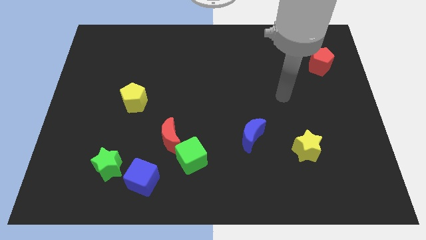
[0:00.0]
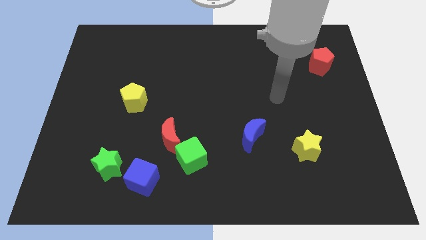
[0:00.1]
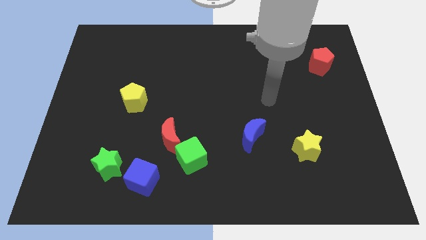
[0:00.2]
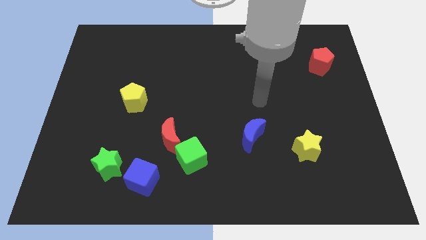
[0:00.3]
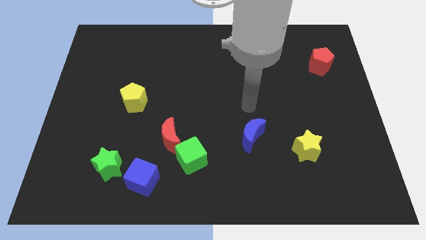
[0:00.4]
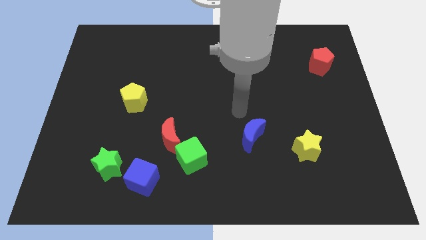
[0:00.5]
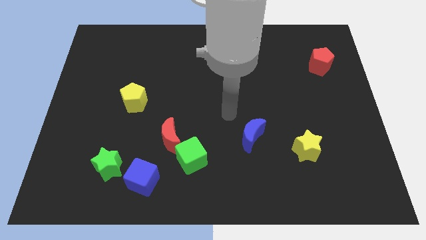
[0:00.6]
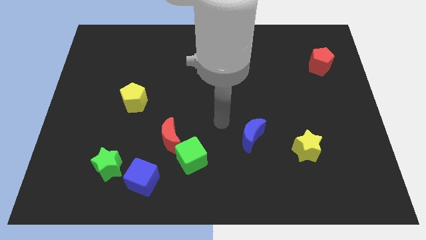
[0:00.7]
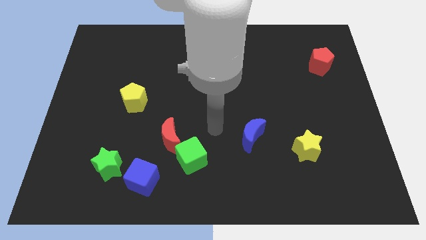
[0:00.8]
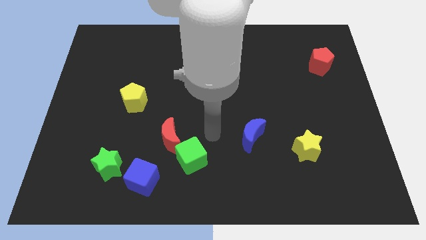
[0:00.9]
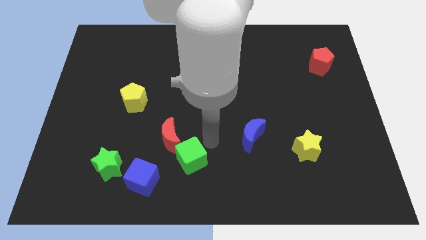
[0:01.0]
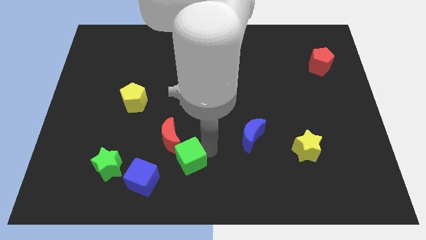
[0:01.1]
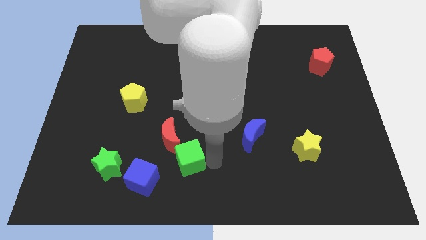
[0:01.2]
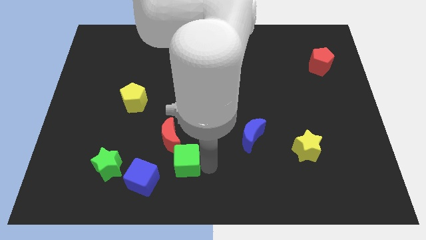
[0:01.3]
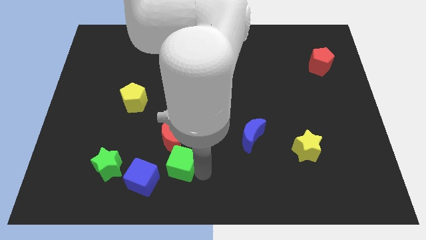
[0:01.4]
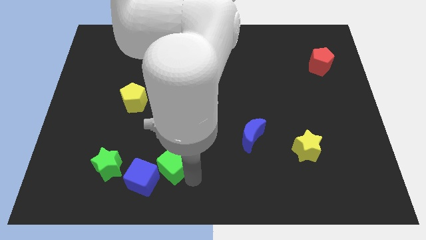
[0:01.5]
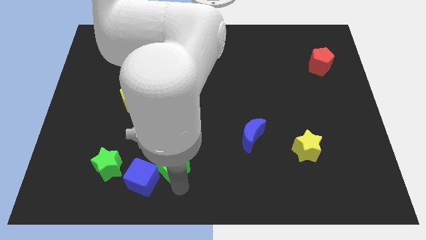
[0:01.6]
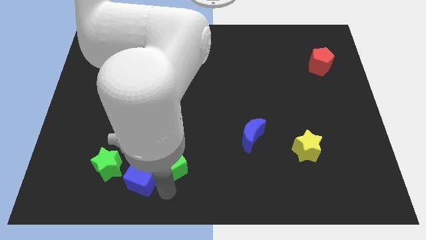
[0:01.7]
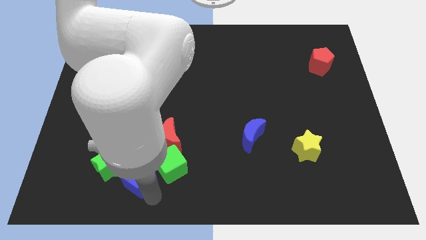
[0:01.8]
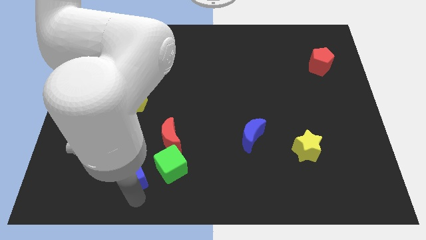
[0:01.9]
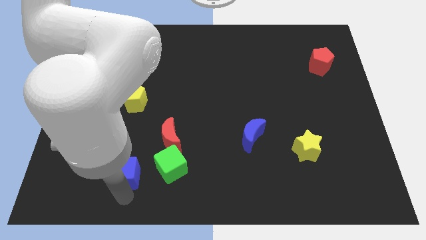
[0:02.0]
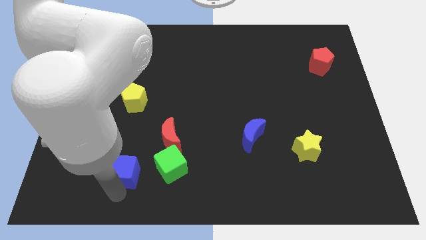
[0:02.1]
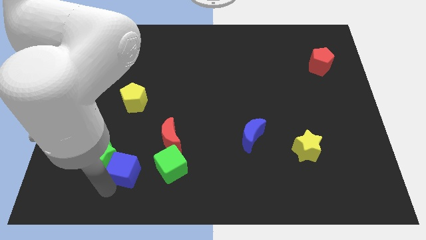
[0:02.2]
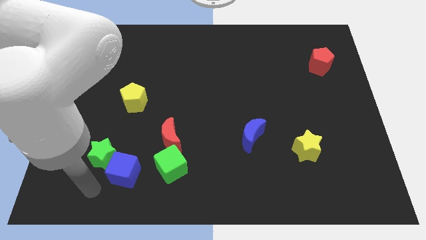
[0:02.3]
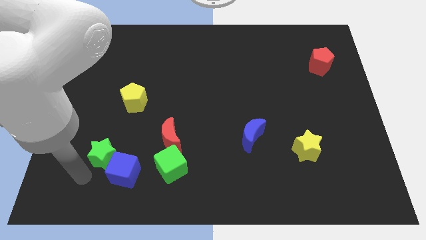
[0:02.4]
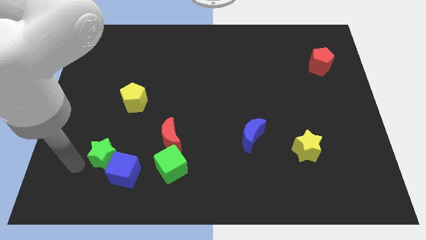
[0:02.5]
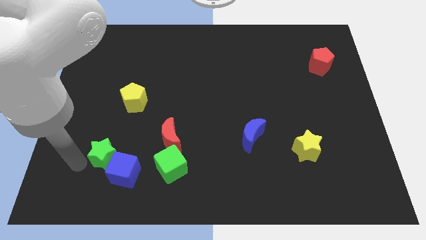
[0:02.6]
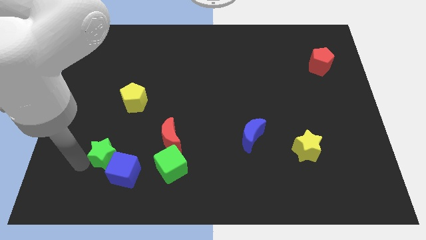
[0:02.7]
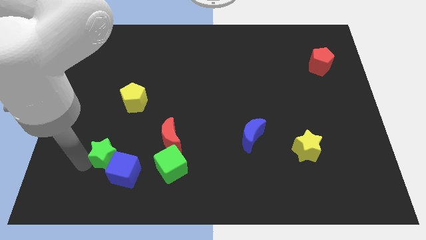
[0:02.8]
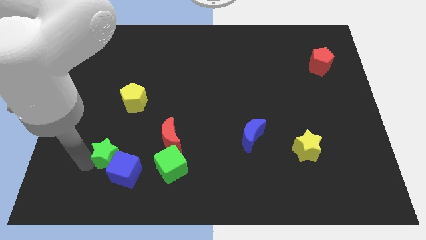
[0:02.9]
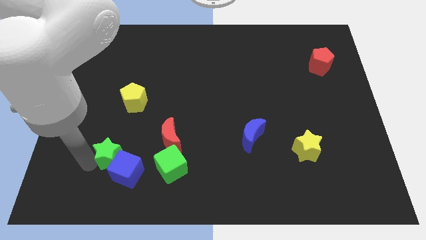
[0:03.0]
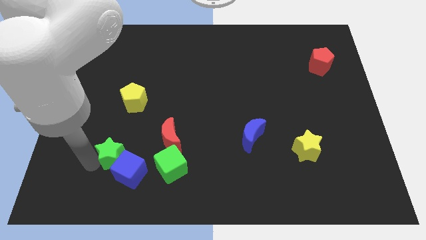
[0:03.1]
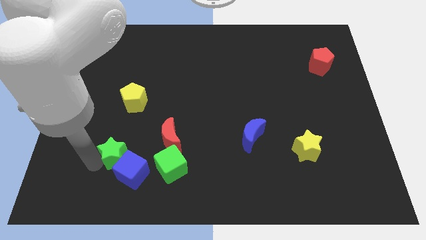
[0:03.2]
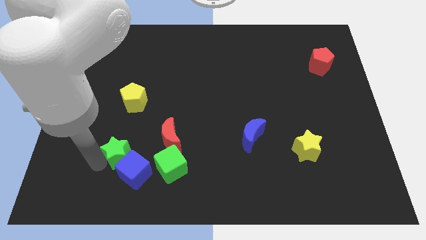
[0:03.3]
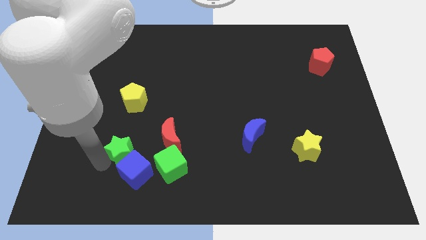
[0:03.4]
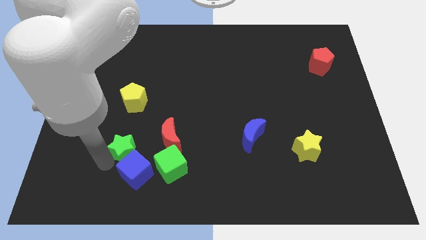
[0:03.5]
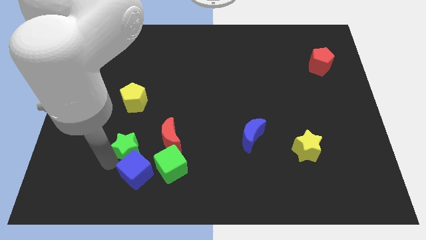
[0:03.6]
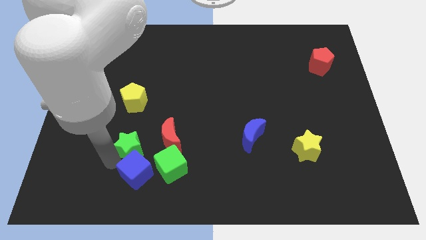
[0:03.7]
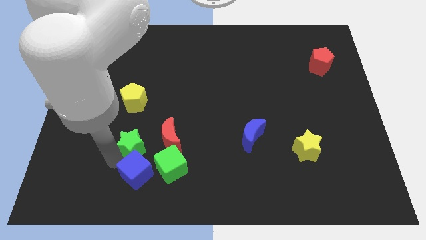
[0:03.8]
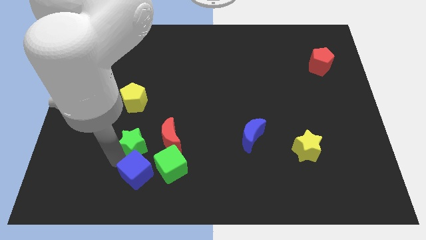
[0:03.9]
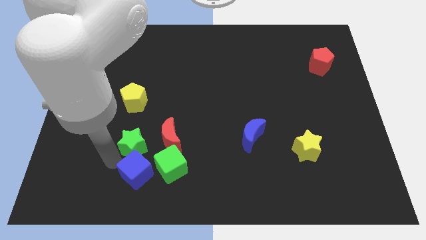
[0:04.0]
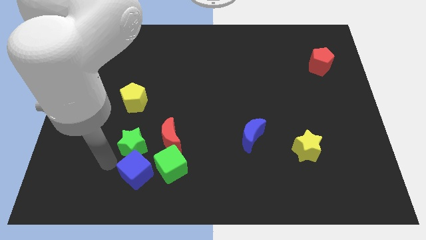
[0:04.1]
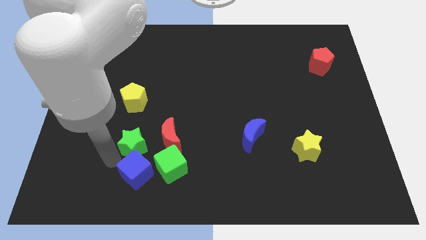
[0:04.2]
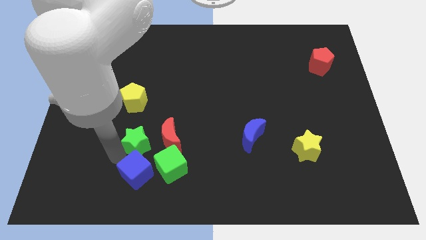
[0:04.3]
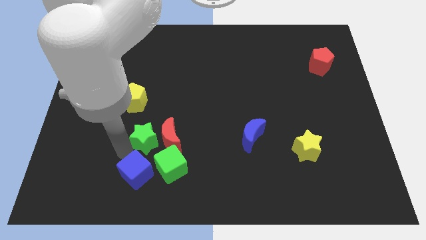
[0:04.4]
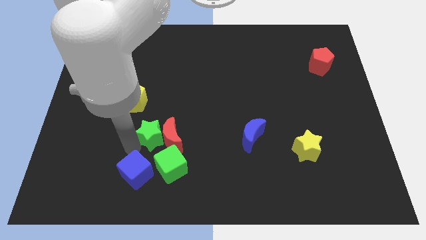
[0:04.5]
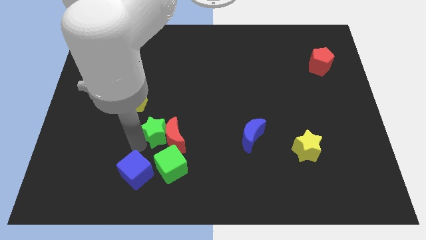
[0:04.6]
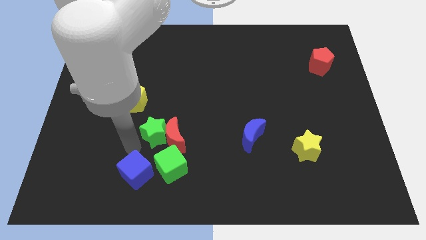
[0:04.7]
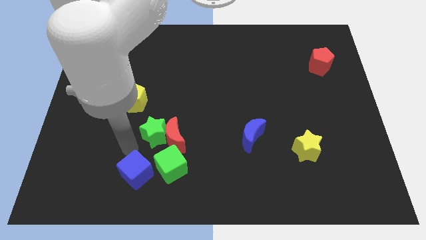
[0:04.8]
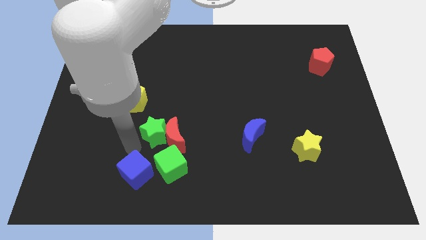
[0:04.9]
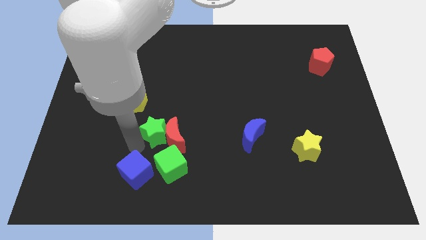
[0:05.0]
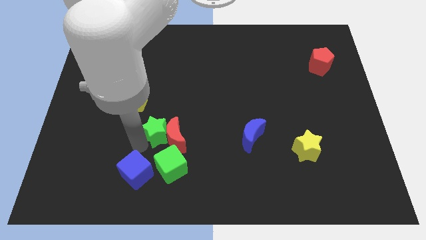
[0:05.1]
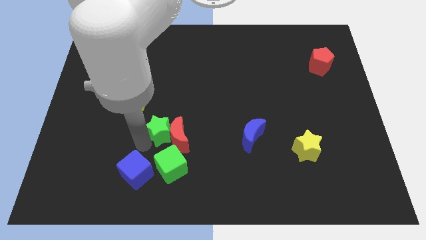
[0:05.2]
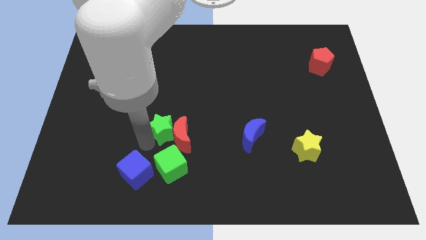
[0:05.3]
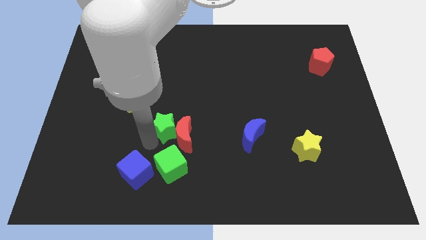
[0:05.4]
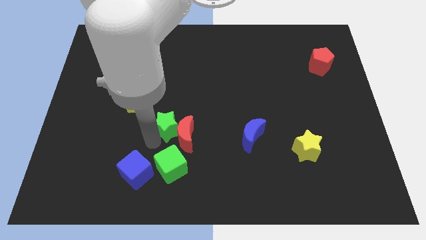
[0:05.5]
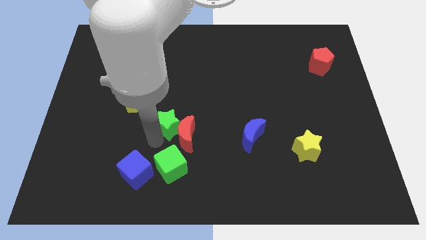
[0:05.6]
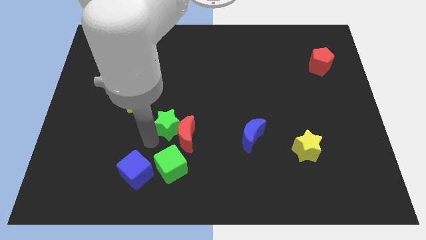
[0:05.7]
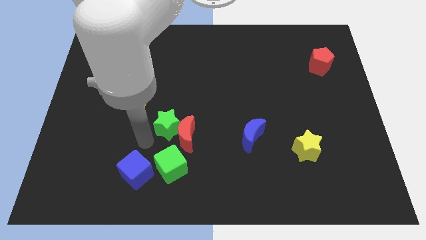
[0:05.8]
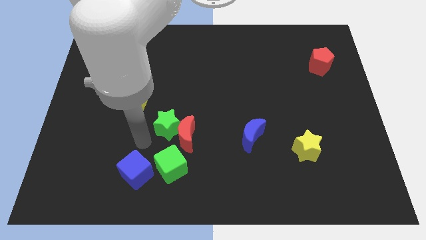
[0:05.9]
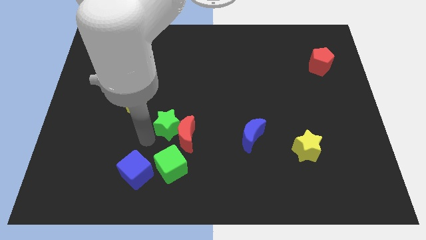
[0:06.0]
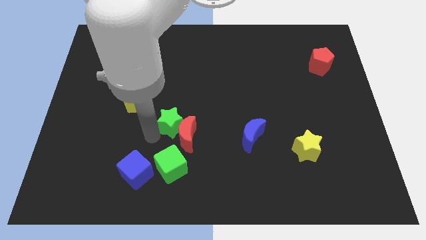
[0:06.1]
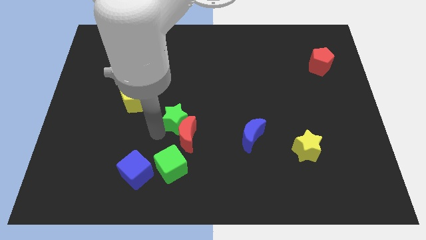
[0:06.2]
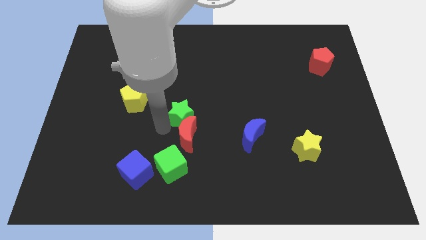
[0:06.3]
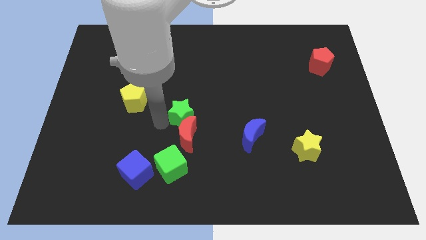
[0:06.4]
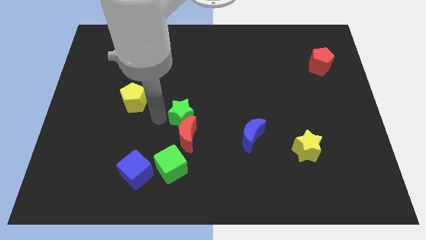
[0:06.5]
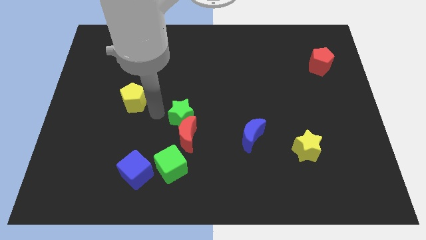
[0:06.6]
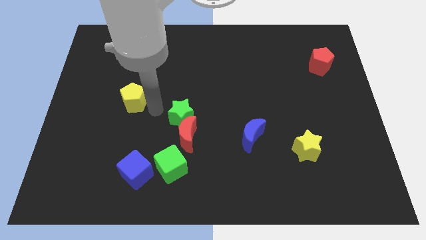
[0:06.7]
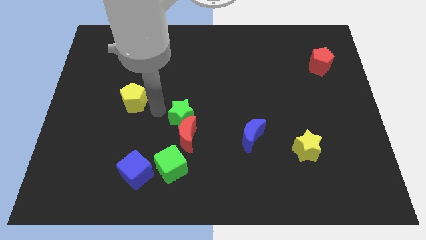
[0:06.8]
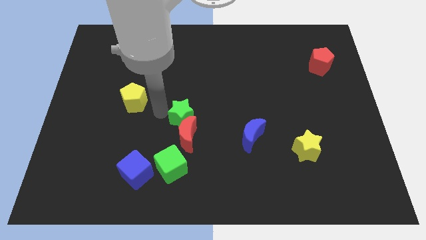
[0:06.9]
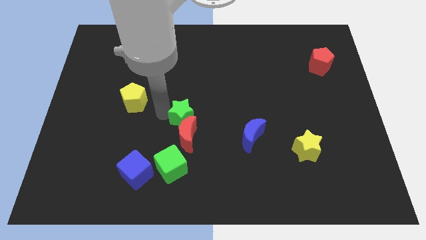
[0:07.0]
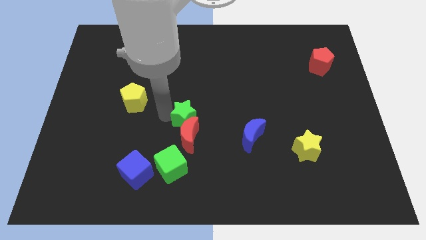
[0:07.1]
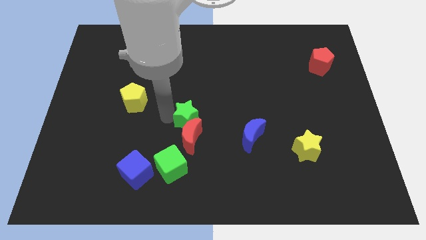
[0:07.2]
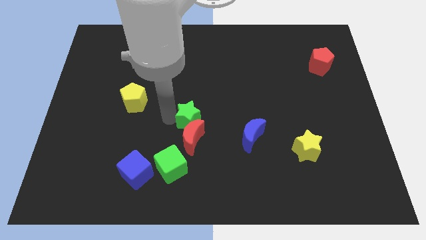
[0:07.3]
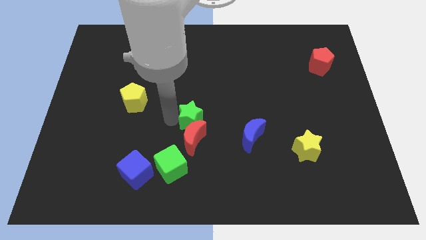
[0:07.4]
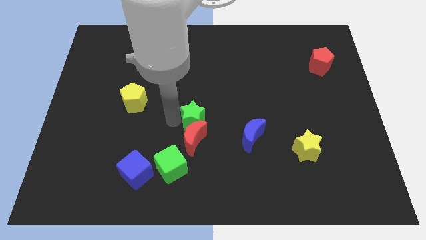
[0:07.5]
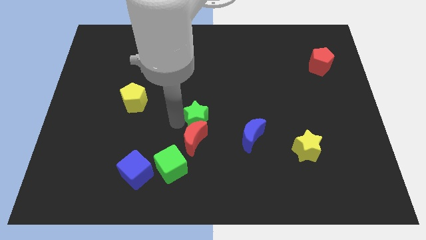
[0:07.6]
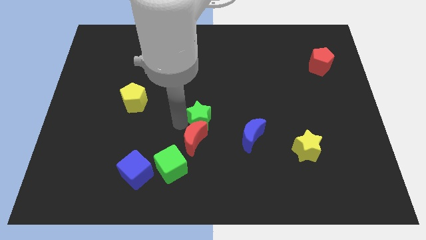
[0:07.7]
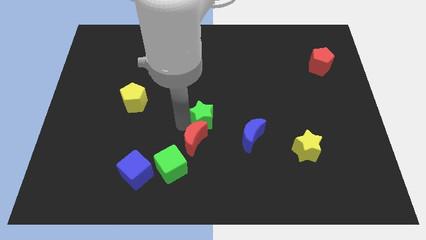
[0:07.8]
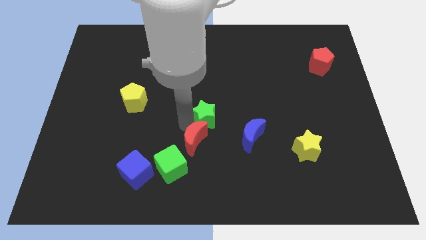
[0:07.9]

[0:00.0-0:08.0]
put the green star to the top left side of the blue moon
